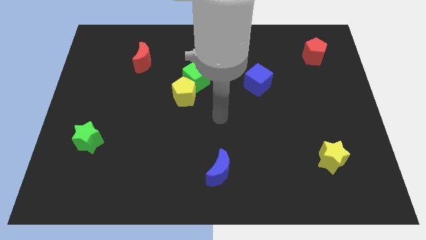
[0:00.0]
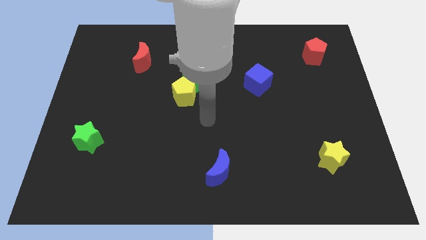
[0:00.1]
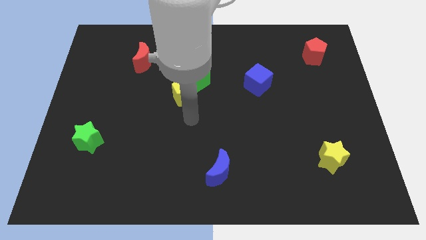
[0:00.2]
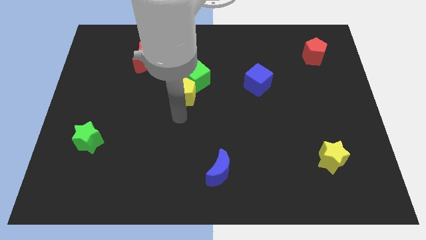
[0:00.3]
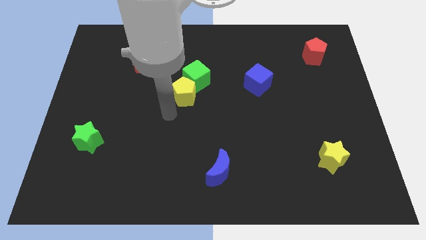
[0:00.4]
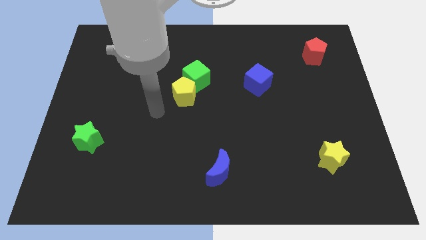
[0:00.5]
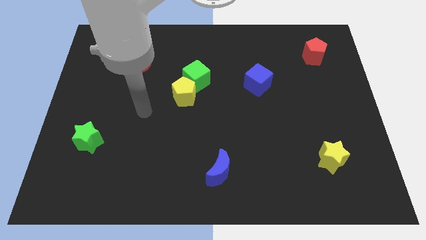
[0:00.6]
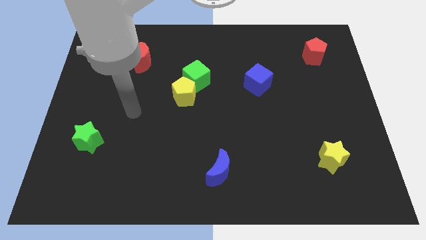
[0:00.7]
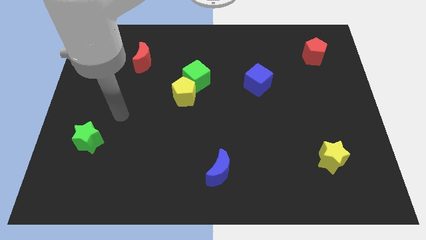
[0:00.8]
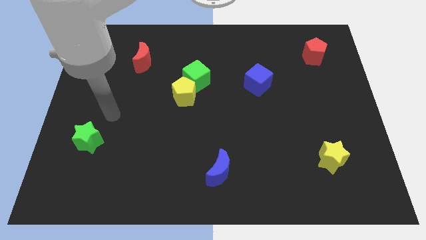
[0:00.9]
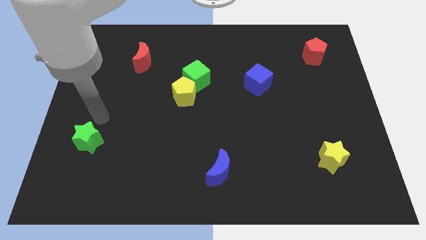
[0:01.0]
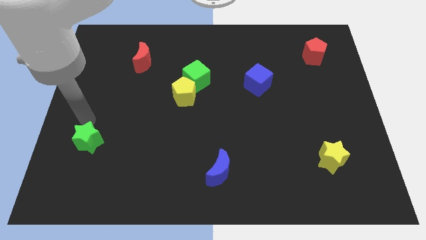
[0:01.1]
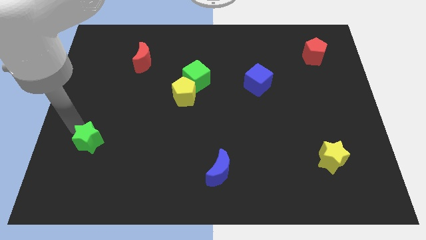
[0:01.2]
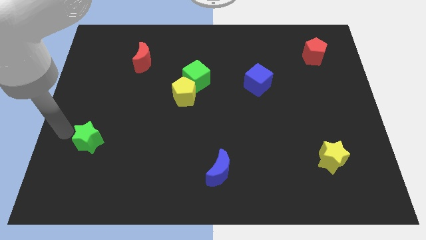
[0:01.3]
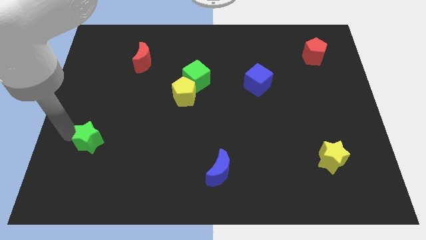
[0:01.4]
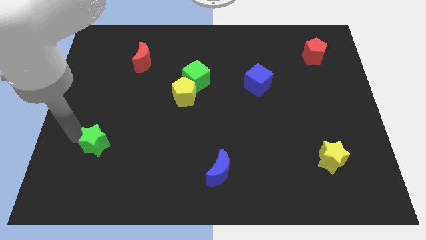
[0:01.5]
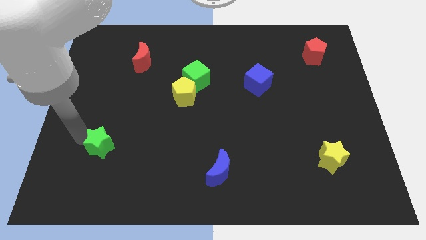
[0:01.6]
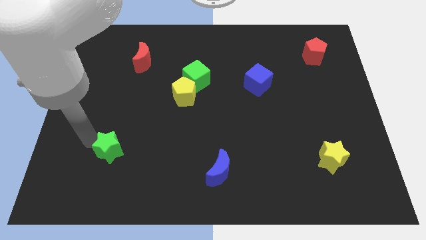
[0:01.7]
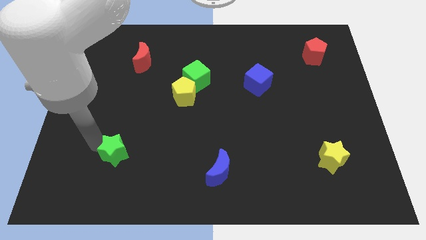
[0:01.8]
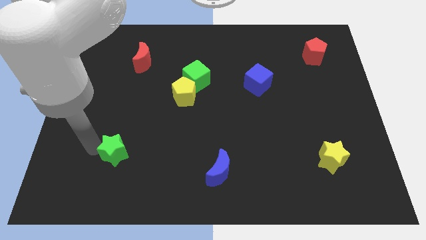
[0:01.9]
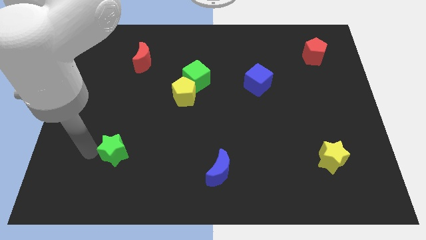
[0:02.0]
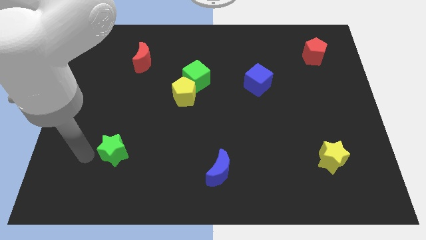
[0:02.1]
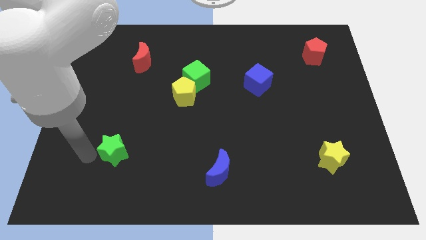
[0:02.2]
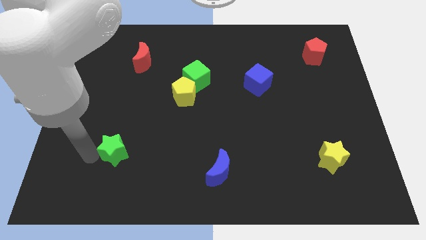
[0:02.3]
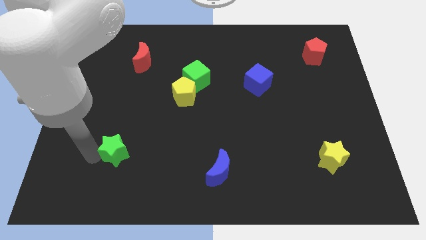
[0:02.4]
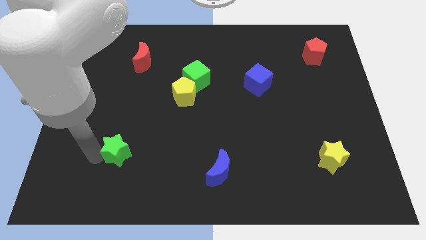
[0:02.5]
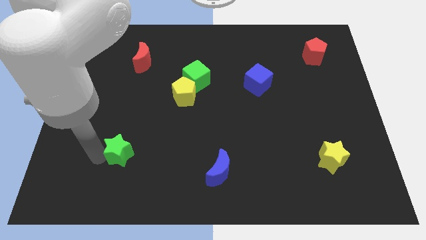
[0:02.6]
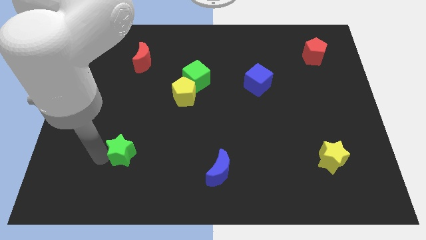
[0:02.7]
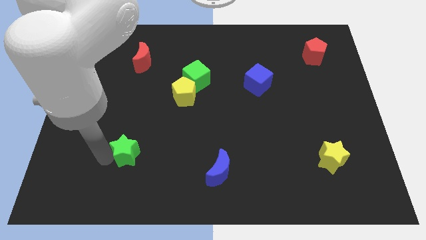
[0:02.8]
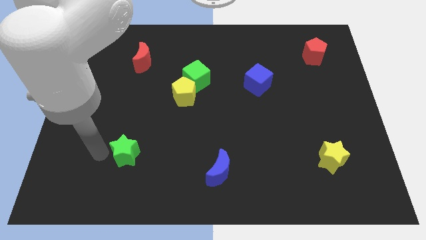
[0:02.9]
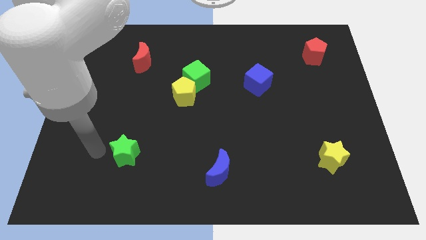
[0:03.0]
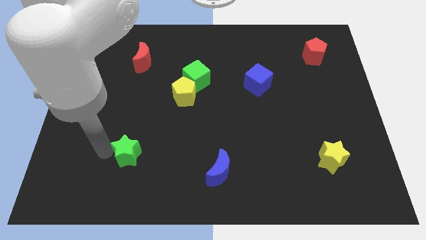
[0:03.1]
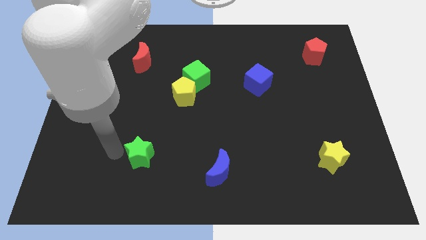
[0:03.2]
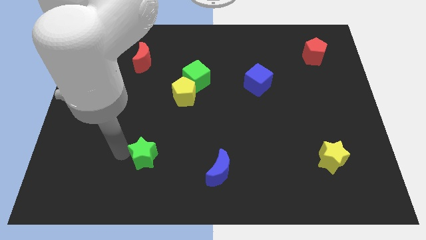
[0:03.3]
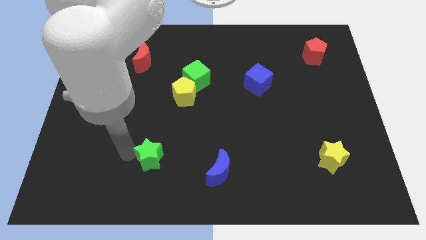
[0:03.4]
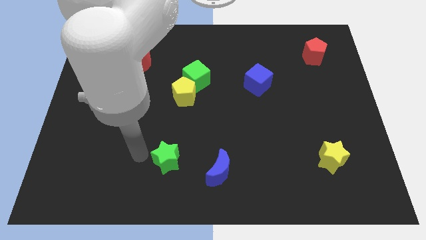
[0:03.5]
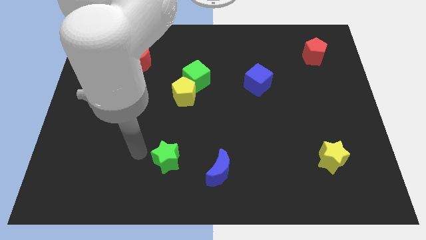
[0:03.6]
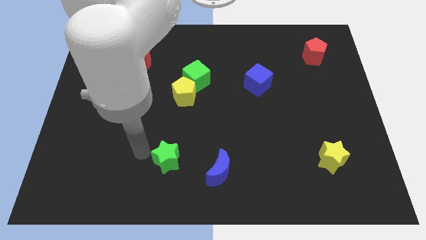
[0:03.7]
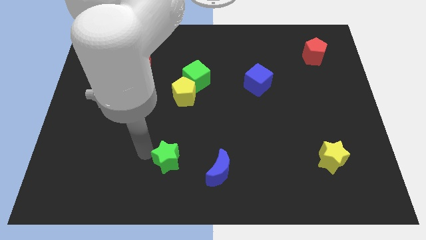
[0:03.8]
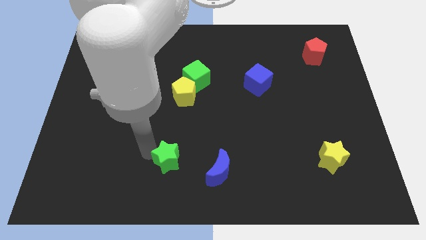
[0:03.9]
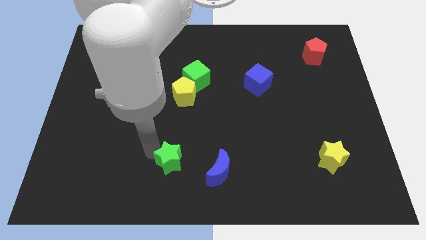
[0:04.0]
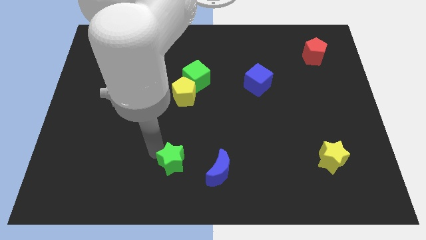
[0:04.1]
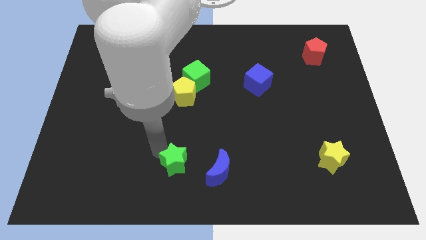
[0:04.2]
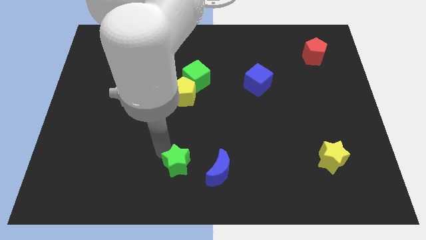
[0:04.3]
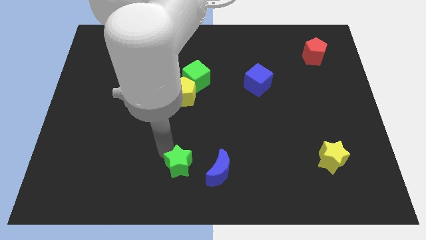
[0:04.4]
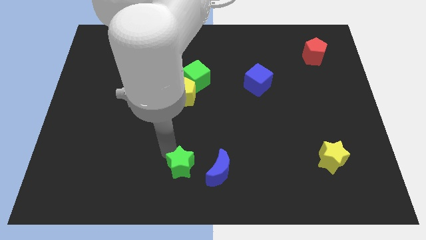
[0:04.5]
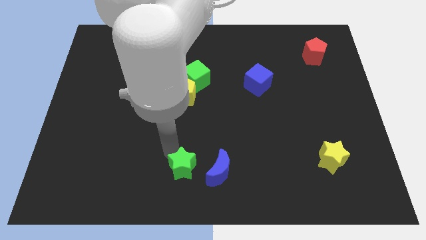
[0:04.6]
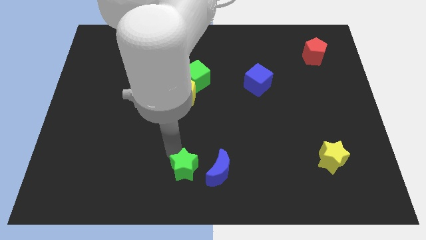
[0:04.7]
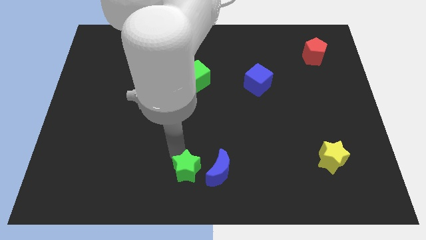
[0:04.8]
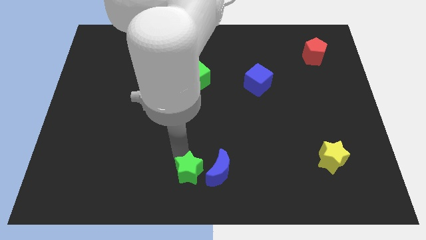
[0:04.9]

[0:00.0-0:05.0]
put the green star next to the blue moon

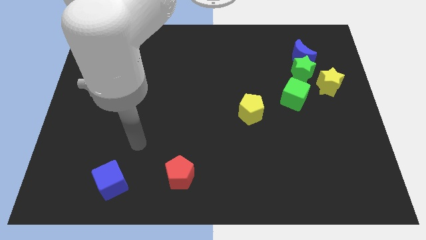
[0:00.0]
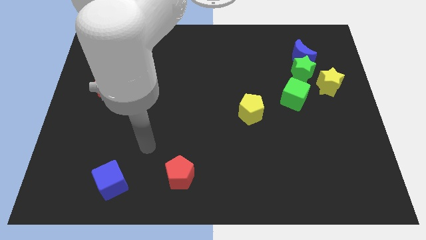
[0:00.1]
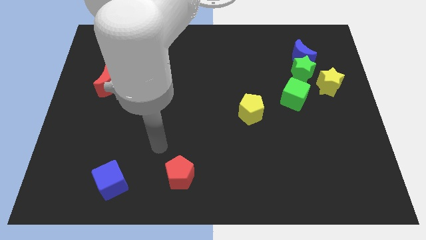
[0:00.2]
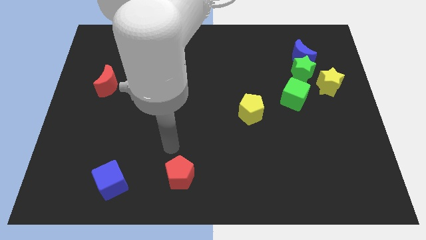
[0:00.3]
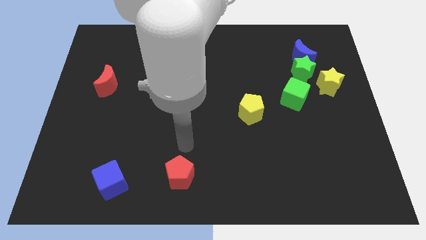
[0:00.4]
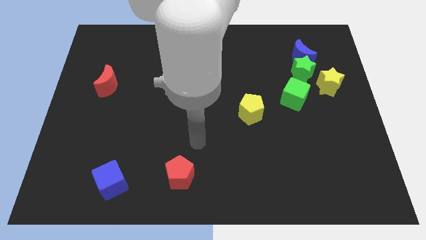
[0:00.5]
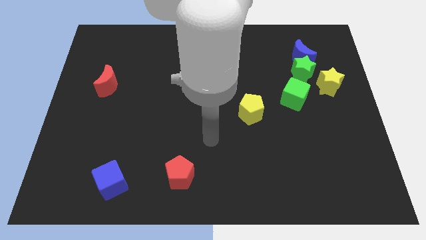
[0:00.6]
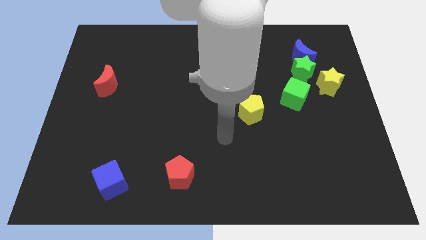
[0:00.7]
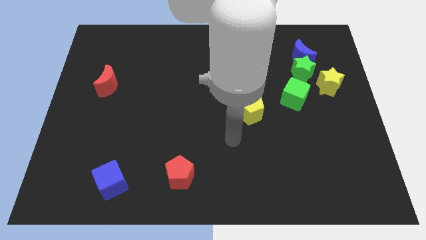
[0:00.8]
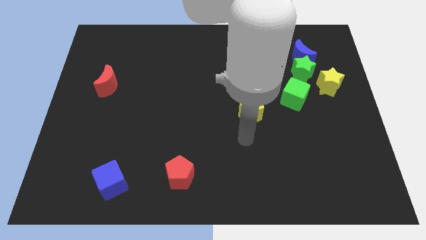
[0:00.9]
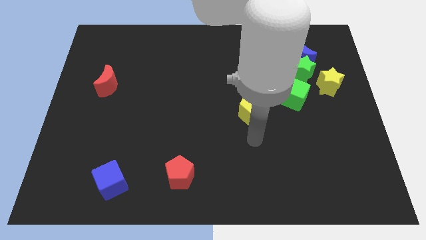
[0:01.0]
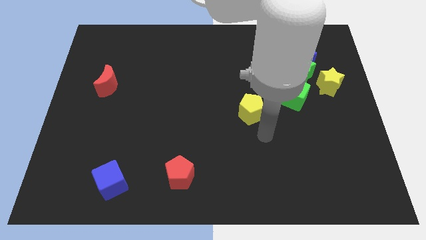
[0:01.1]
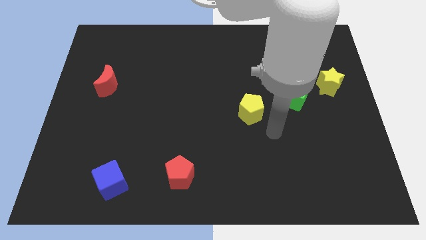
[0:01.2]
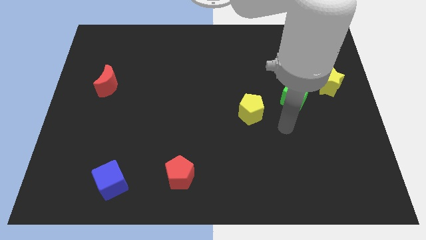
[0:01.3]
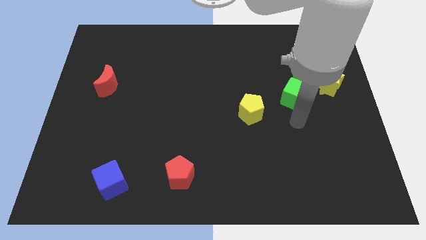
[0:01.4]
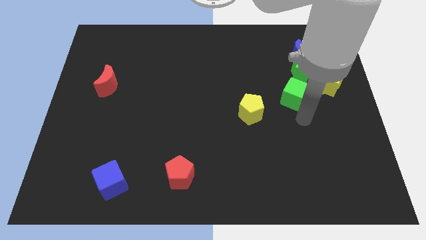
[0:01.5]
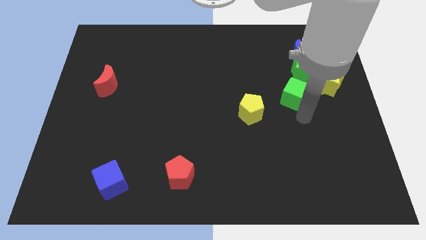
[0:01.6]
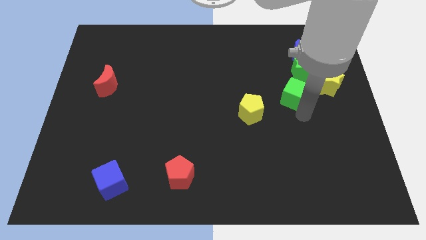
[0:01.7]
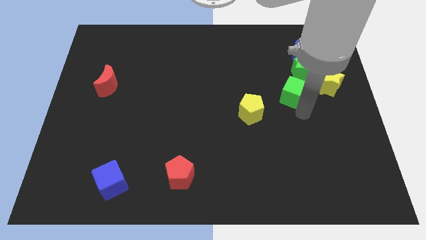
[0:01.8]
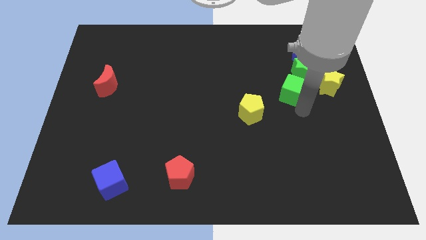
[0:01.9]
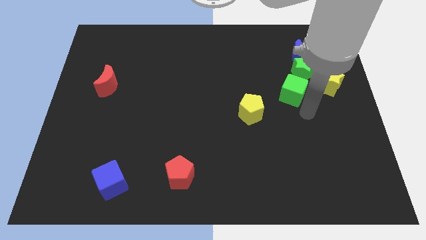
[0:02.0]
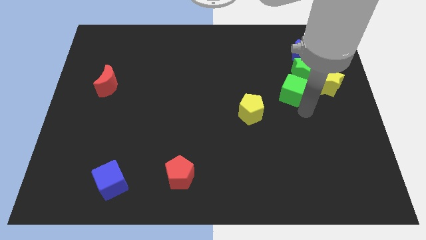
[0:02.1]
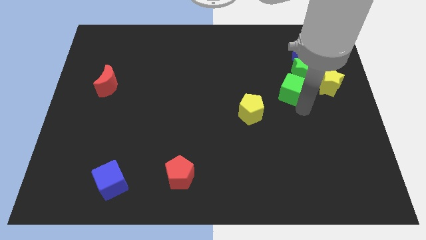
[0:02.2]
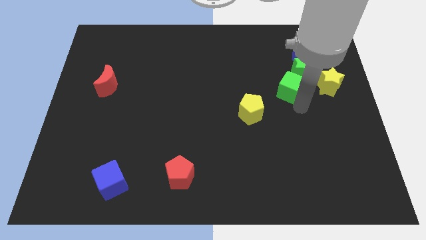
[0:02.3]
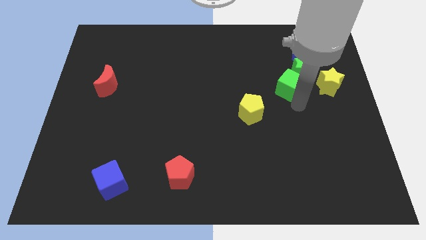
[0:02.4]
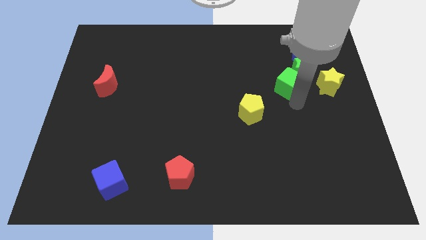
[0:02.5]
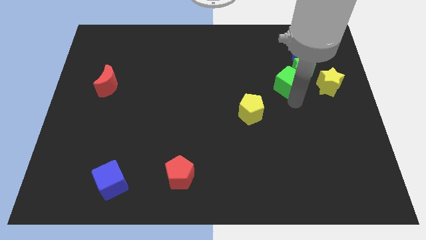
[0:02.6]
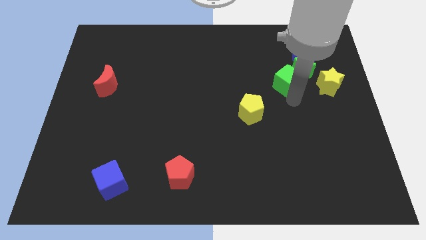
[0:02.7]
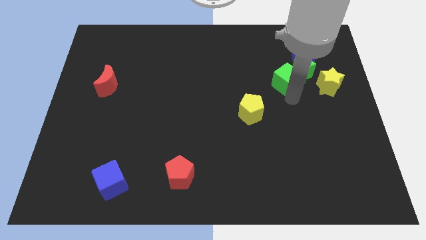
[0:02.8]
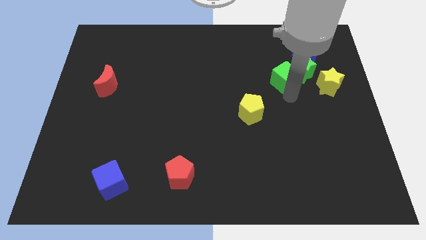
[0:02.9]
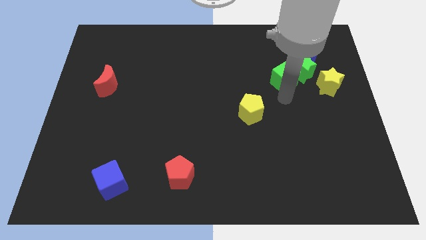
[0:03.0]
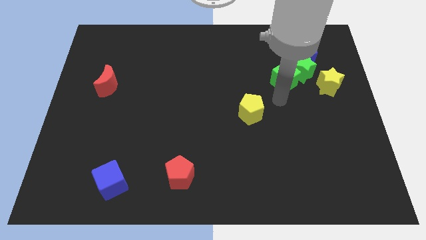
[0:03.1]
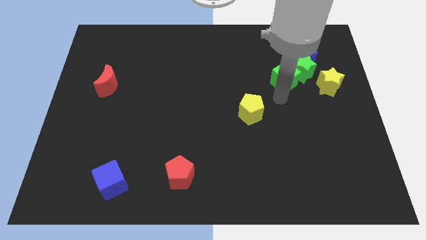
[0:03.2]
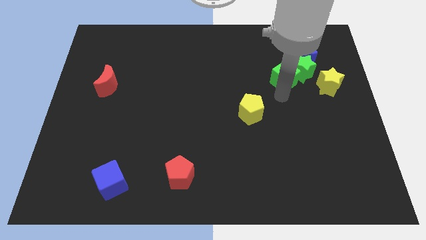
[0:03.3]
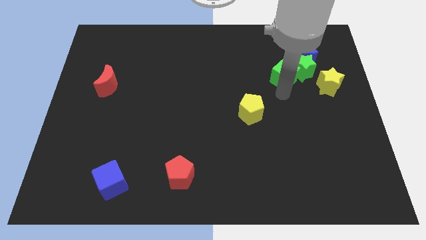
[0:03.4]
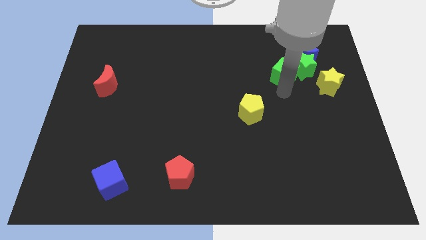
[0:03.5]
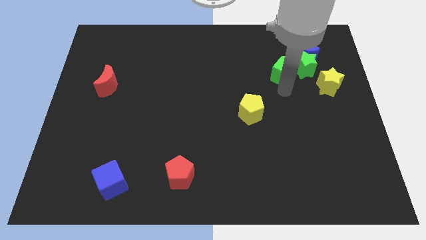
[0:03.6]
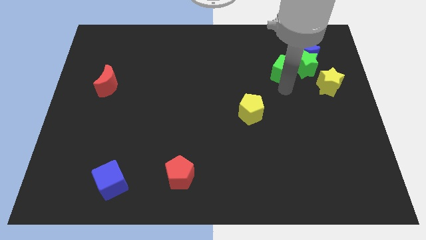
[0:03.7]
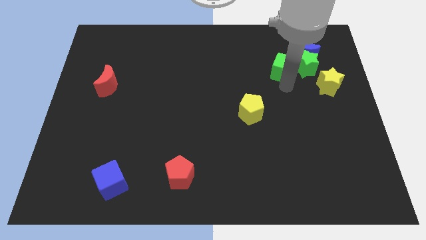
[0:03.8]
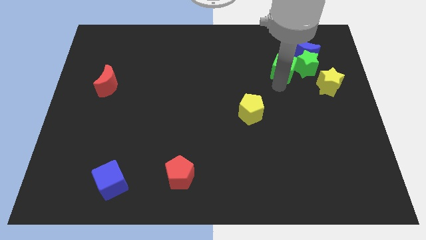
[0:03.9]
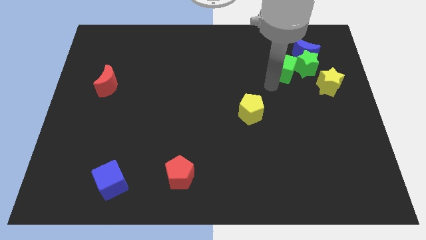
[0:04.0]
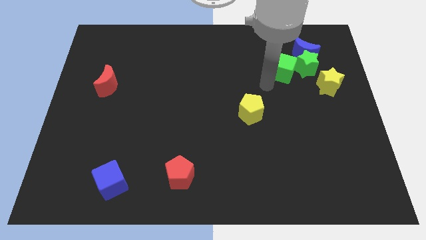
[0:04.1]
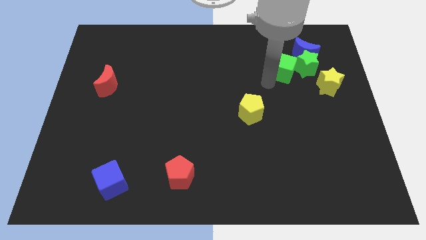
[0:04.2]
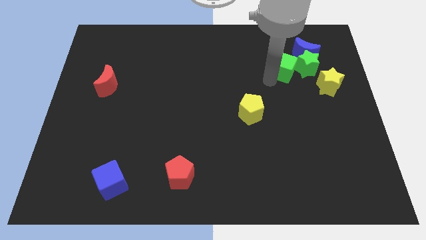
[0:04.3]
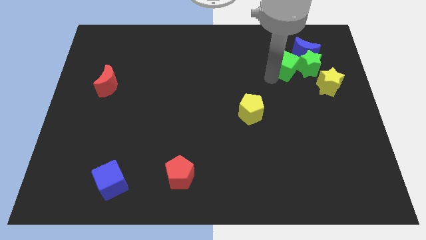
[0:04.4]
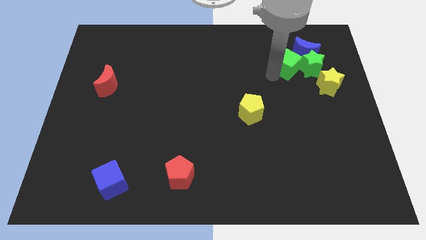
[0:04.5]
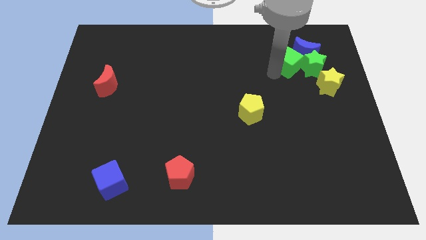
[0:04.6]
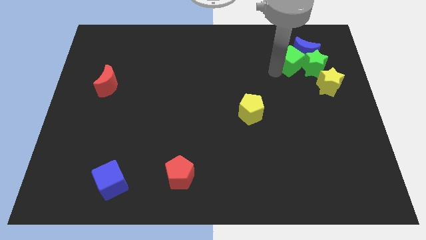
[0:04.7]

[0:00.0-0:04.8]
move the green cube towards the blue moon
